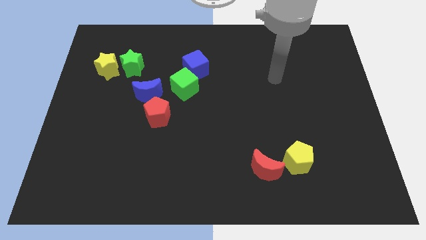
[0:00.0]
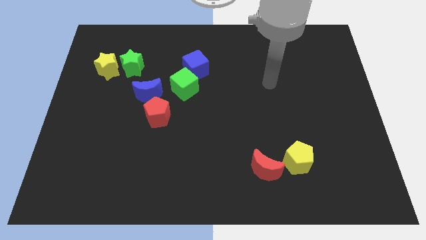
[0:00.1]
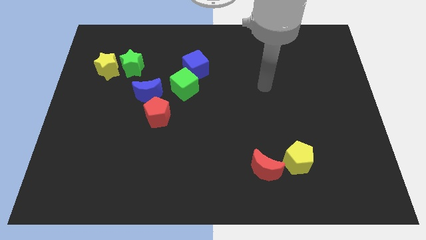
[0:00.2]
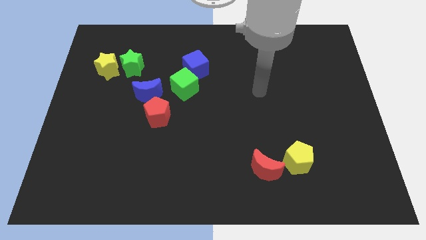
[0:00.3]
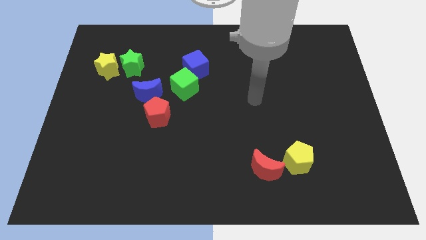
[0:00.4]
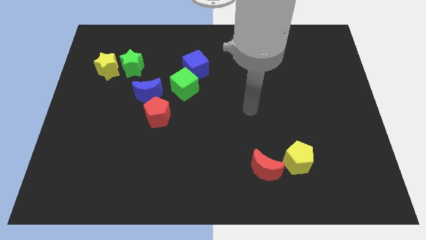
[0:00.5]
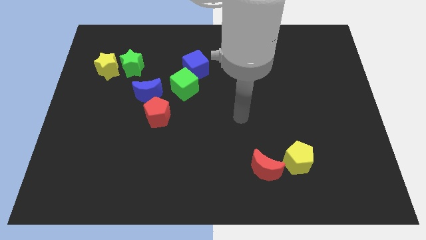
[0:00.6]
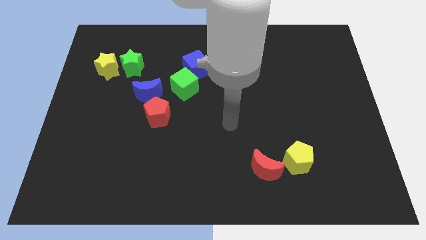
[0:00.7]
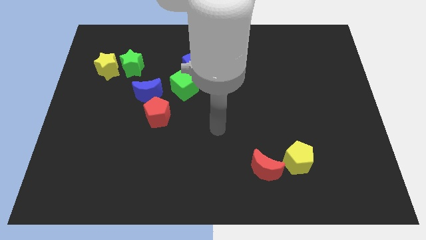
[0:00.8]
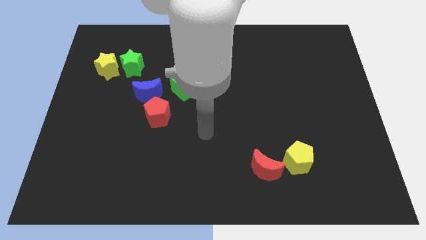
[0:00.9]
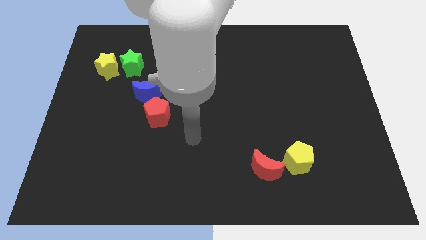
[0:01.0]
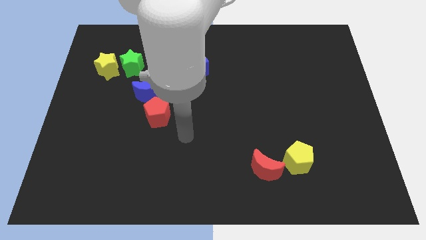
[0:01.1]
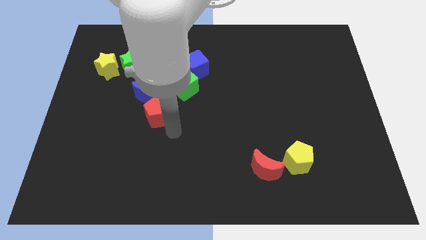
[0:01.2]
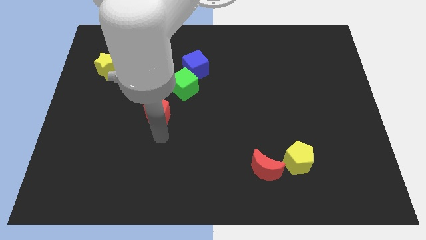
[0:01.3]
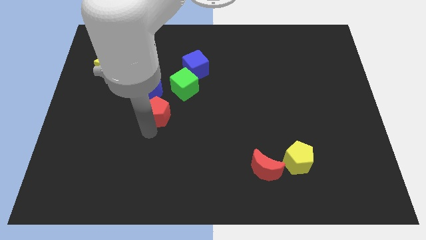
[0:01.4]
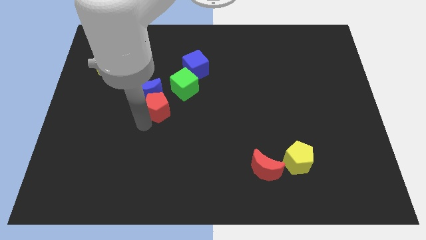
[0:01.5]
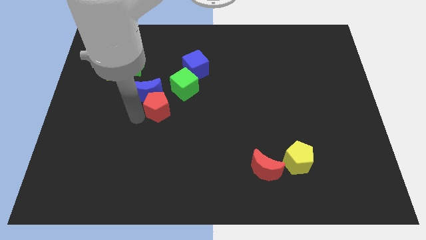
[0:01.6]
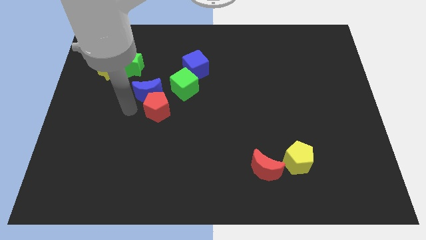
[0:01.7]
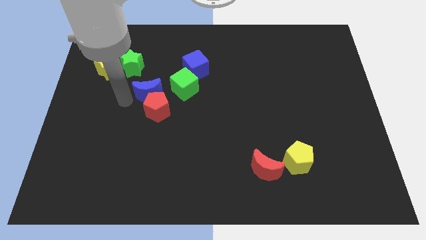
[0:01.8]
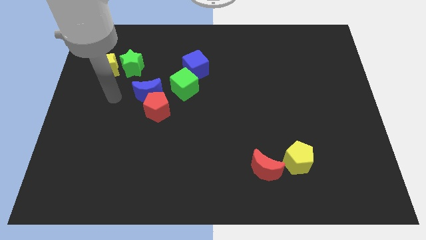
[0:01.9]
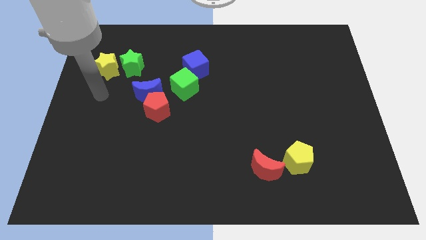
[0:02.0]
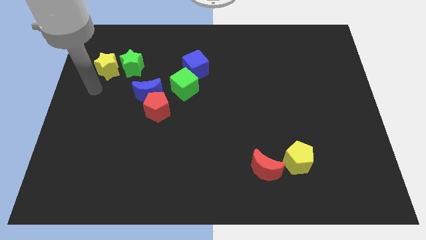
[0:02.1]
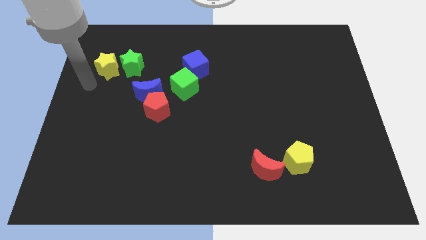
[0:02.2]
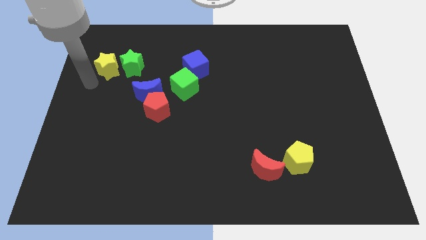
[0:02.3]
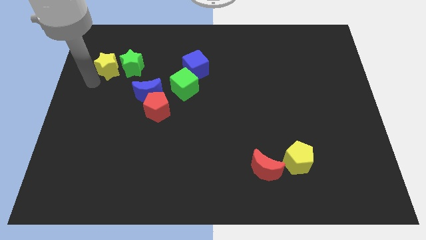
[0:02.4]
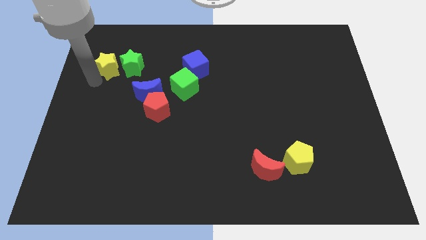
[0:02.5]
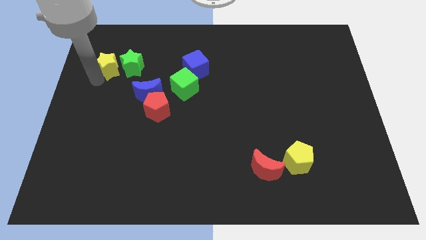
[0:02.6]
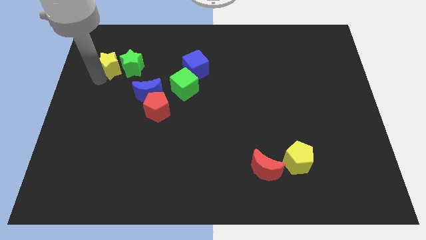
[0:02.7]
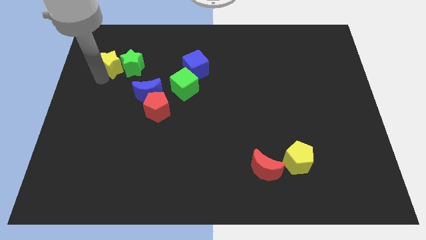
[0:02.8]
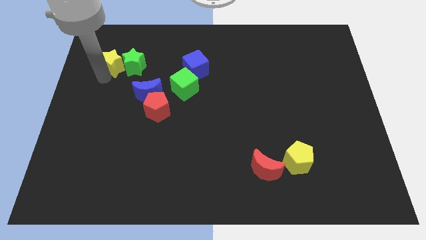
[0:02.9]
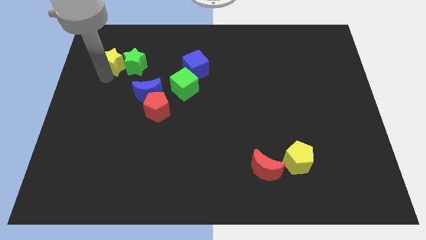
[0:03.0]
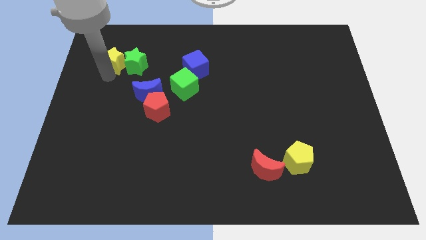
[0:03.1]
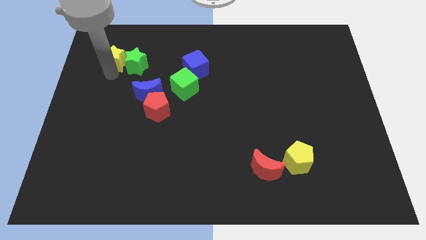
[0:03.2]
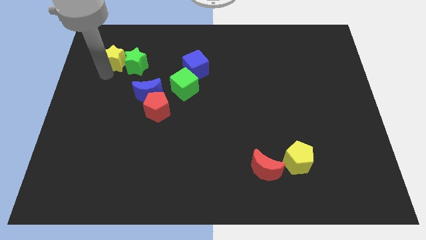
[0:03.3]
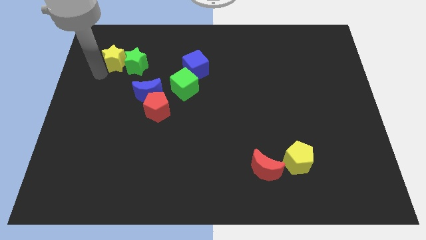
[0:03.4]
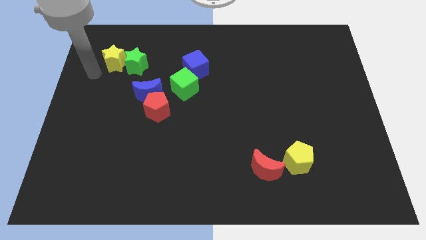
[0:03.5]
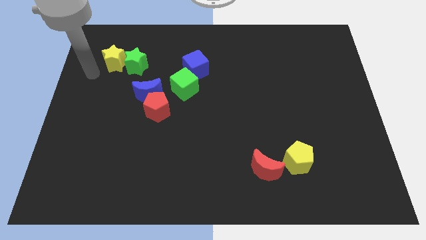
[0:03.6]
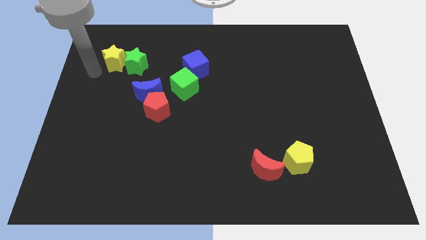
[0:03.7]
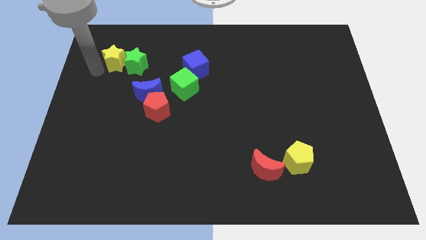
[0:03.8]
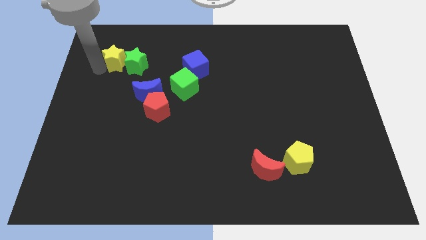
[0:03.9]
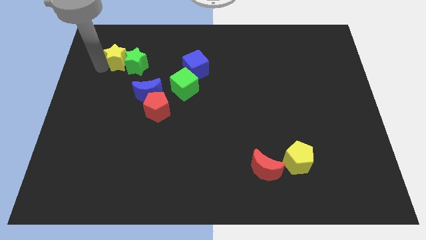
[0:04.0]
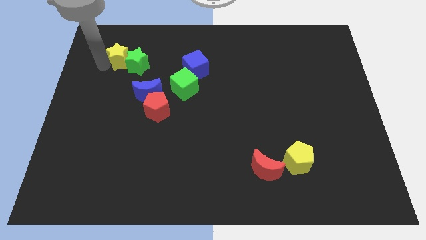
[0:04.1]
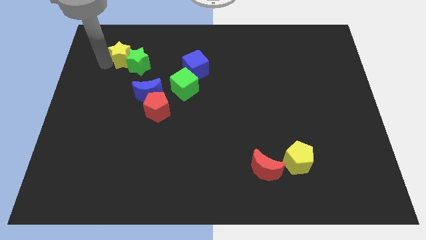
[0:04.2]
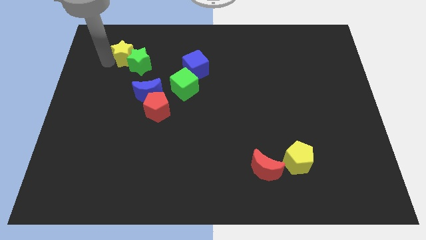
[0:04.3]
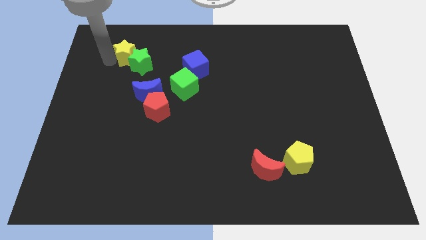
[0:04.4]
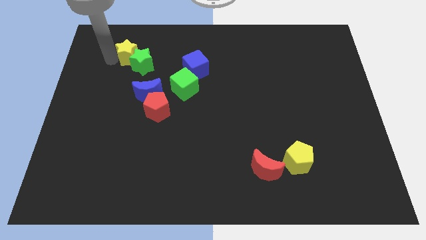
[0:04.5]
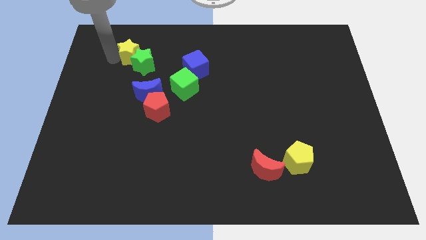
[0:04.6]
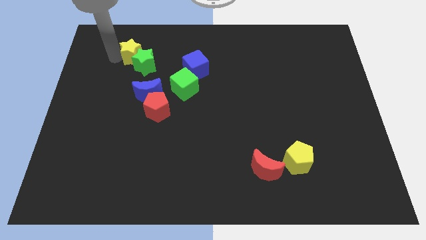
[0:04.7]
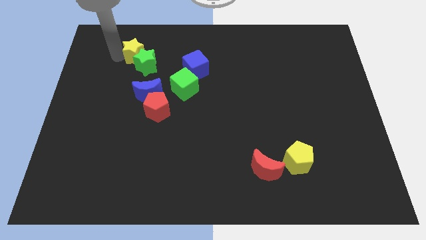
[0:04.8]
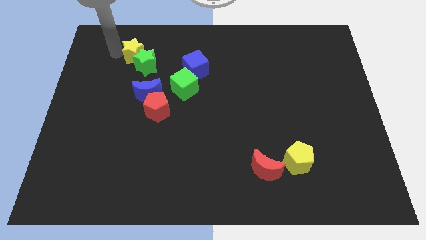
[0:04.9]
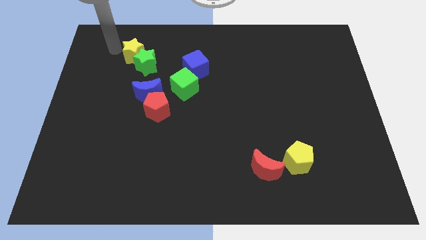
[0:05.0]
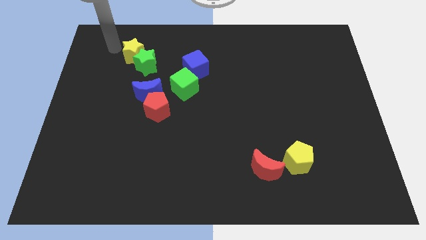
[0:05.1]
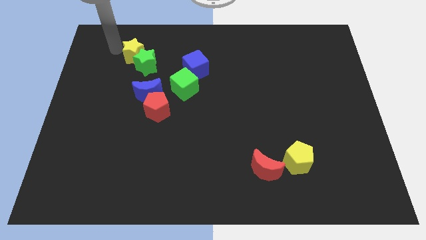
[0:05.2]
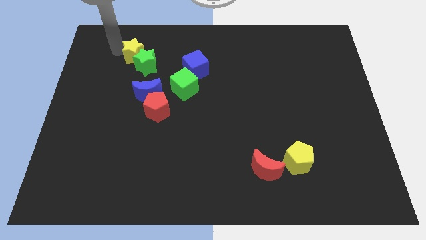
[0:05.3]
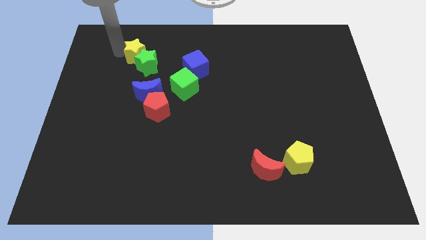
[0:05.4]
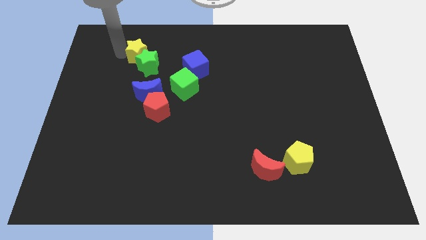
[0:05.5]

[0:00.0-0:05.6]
put the yellow star to the top side of the blue moon

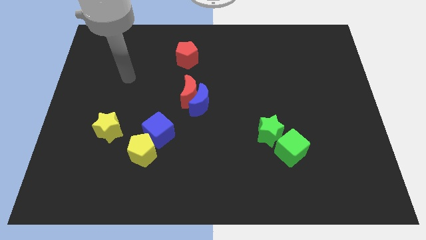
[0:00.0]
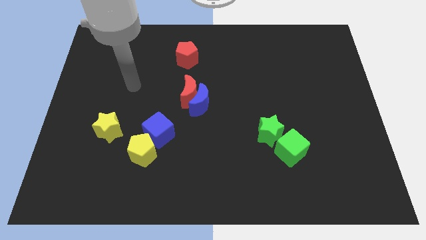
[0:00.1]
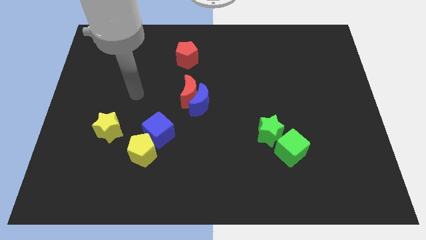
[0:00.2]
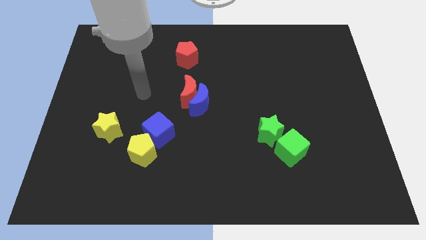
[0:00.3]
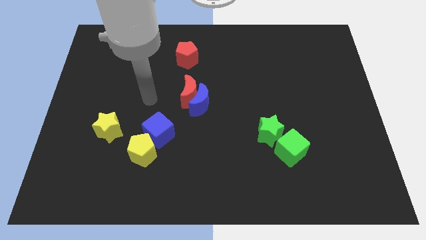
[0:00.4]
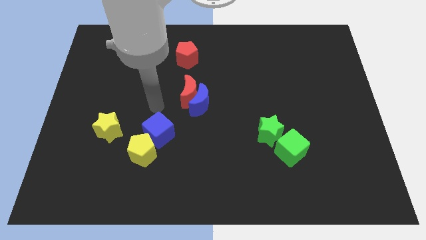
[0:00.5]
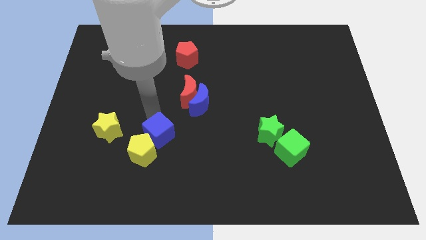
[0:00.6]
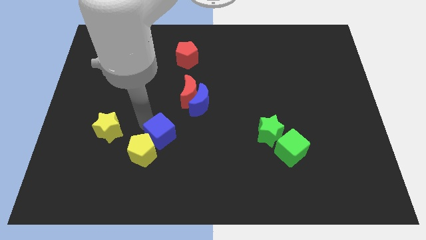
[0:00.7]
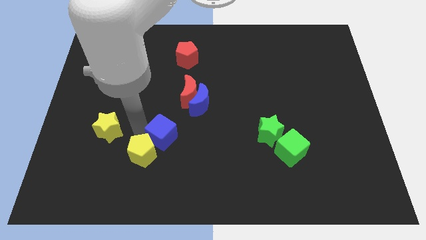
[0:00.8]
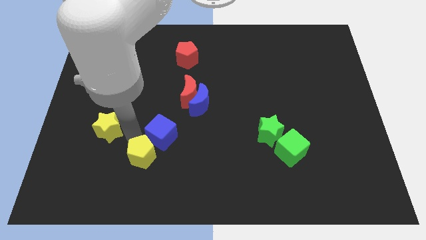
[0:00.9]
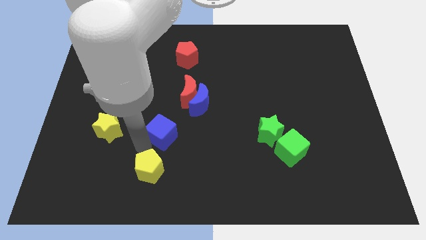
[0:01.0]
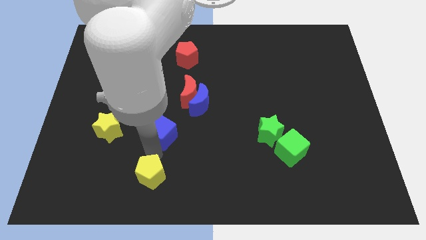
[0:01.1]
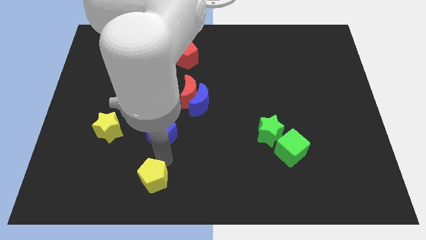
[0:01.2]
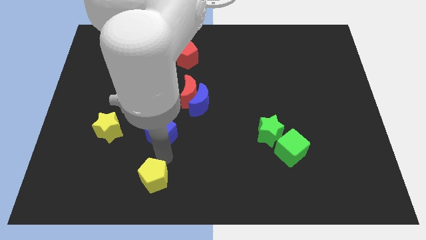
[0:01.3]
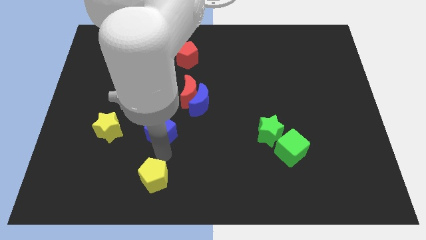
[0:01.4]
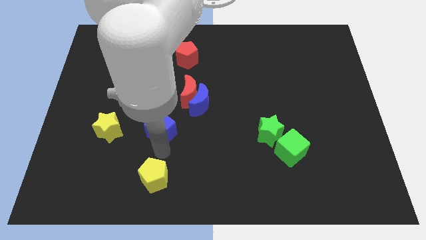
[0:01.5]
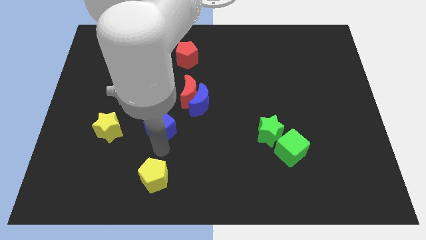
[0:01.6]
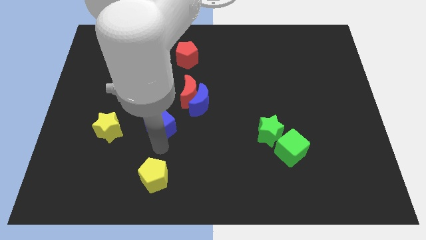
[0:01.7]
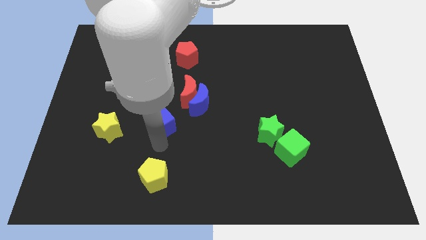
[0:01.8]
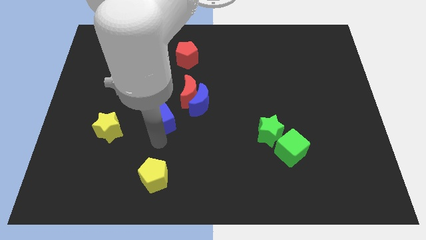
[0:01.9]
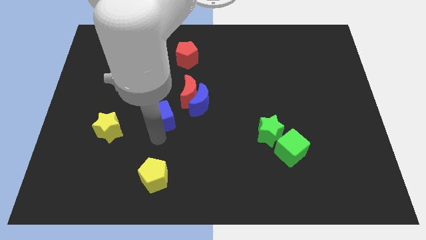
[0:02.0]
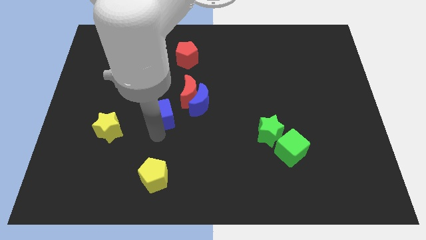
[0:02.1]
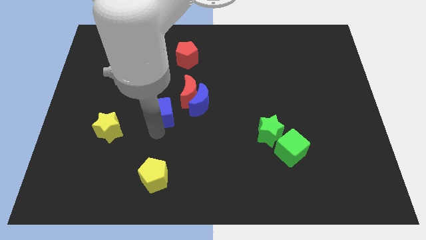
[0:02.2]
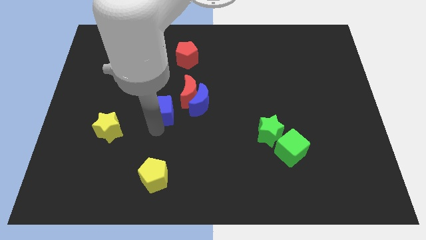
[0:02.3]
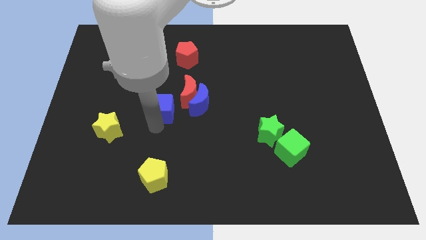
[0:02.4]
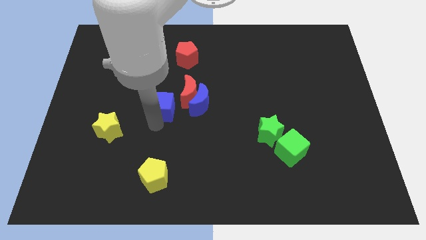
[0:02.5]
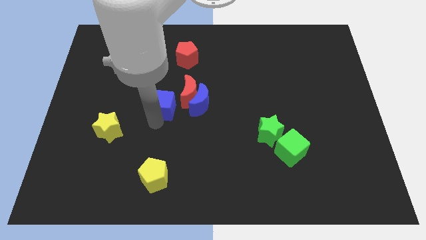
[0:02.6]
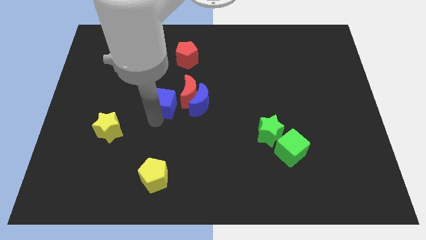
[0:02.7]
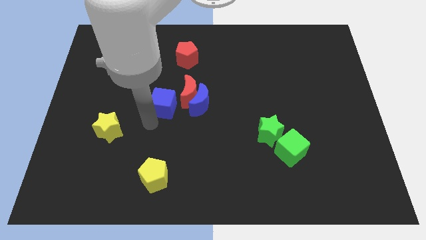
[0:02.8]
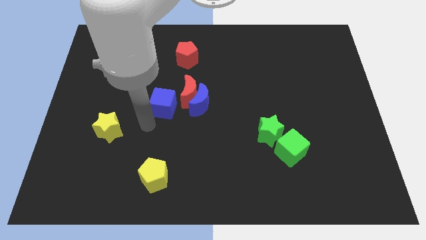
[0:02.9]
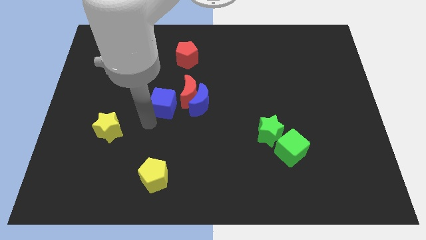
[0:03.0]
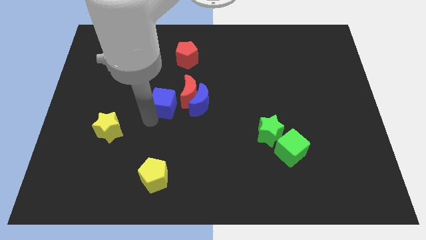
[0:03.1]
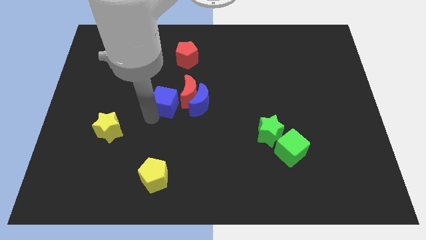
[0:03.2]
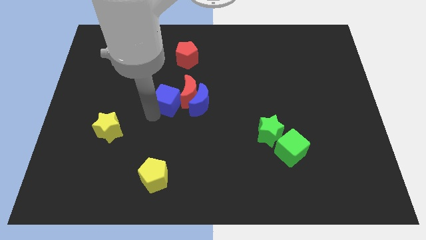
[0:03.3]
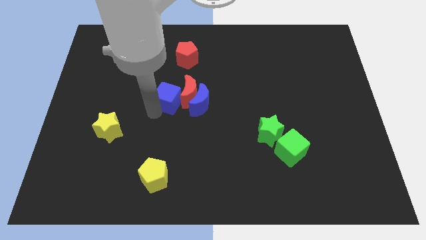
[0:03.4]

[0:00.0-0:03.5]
put the blue cube to the top left of the blue moon
